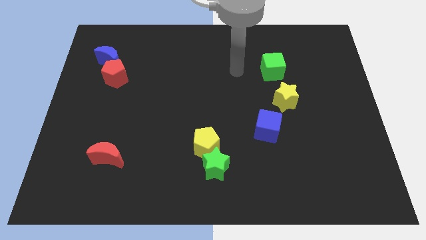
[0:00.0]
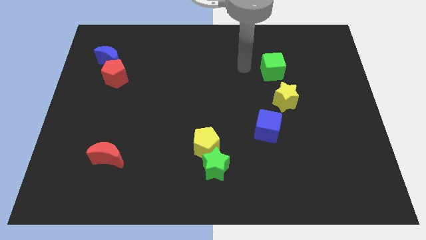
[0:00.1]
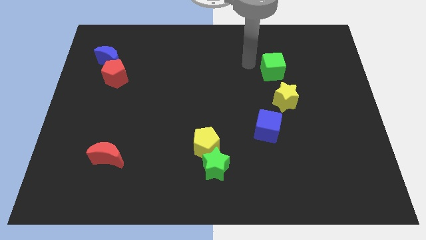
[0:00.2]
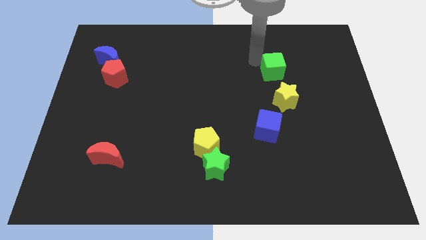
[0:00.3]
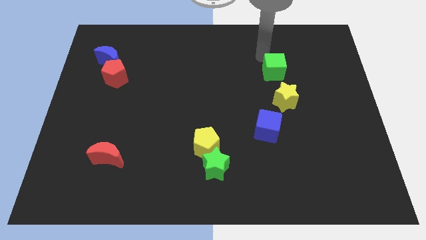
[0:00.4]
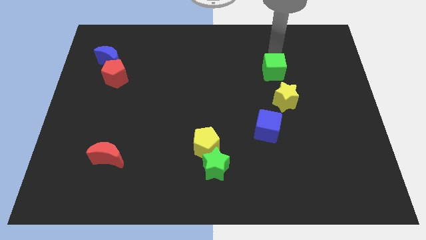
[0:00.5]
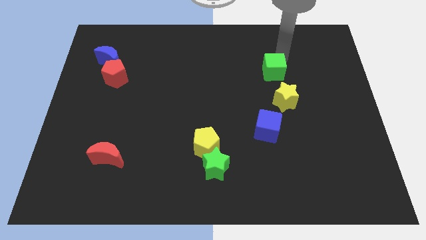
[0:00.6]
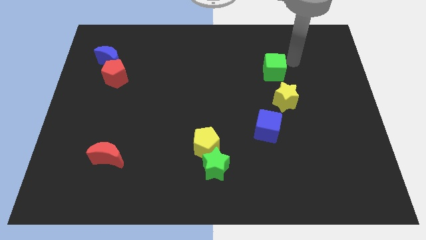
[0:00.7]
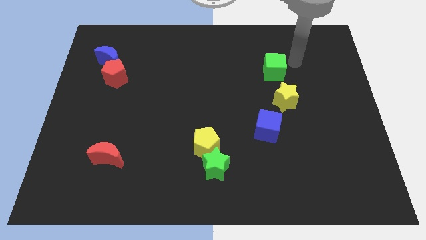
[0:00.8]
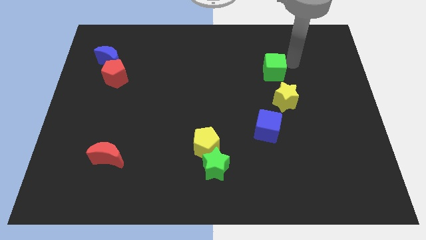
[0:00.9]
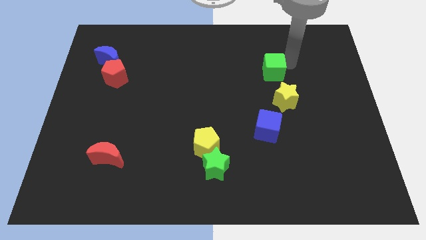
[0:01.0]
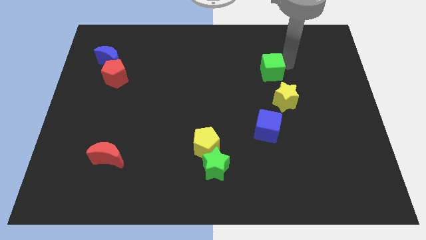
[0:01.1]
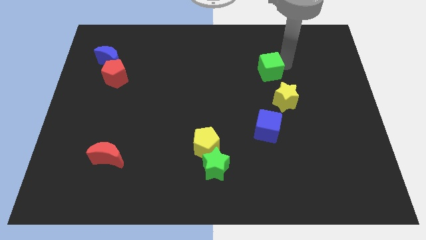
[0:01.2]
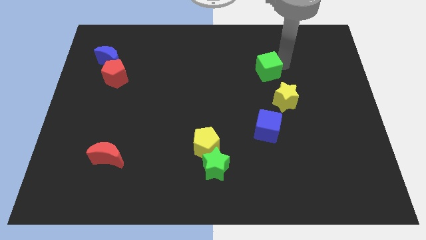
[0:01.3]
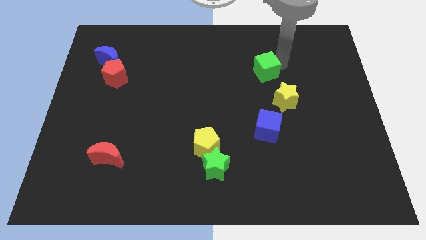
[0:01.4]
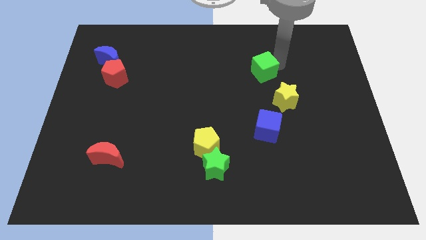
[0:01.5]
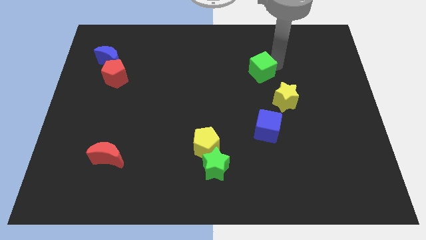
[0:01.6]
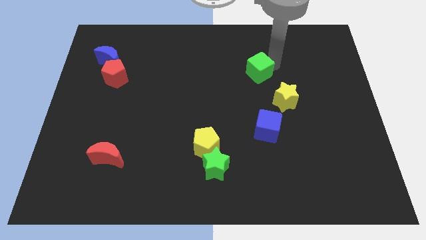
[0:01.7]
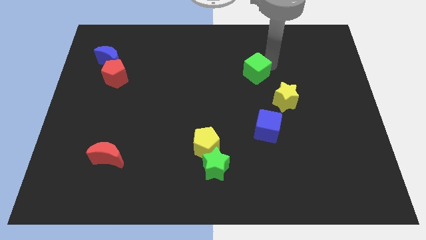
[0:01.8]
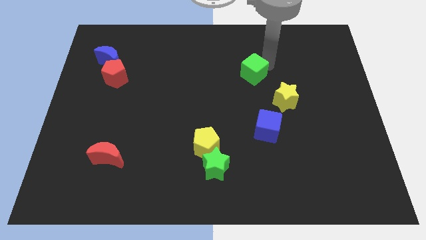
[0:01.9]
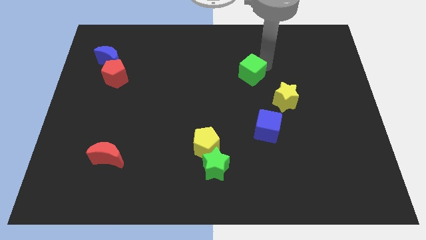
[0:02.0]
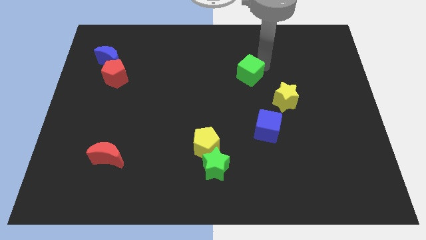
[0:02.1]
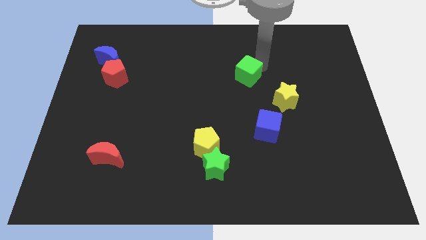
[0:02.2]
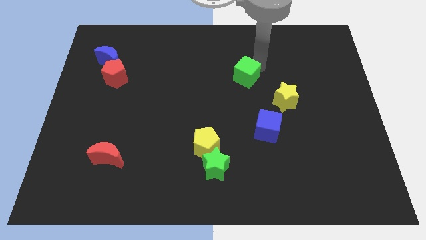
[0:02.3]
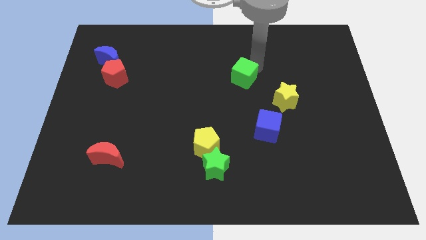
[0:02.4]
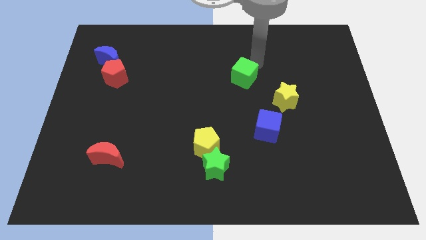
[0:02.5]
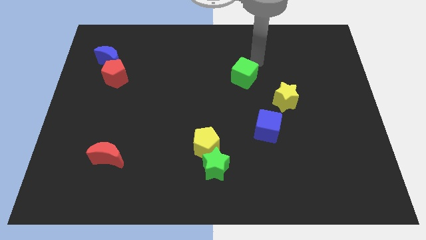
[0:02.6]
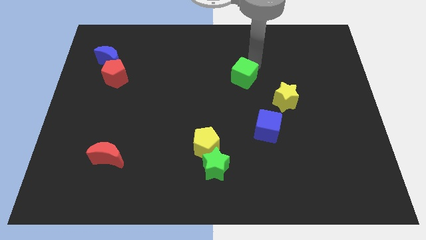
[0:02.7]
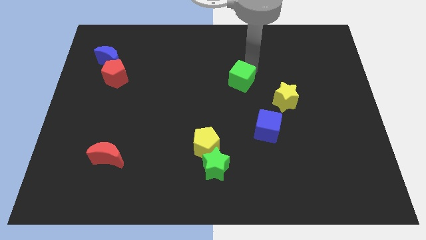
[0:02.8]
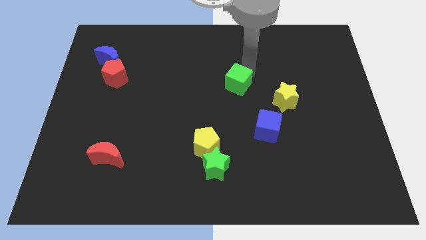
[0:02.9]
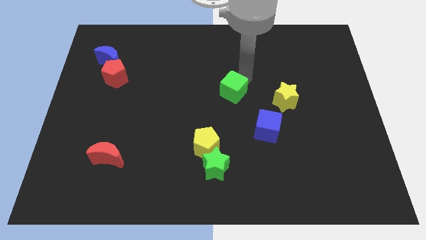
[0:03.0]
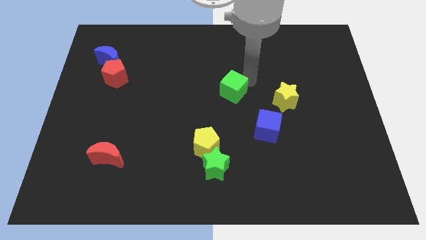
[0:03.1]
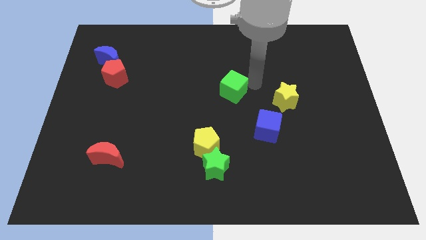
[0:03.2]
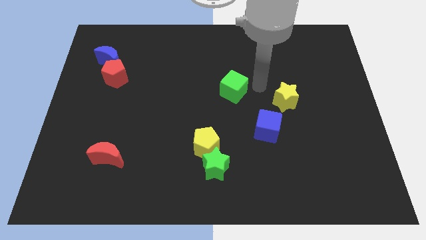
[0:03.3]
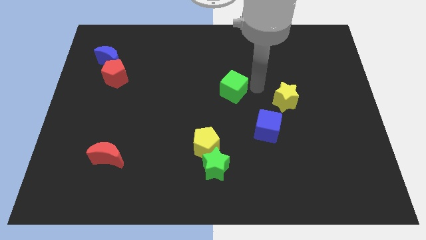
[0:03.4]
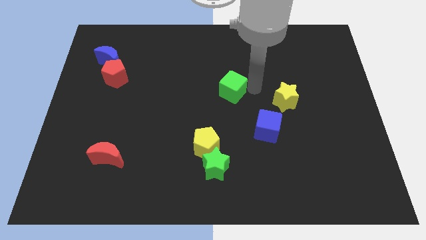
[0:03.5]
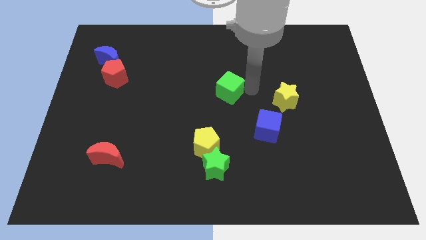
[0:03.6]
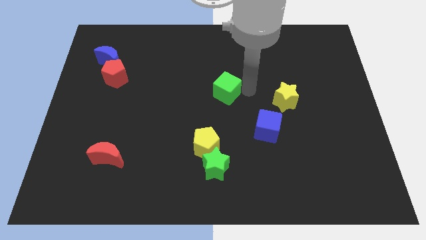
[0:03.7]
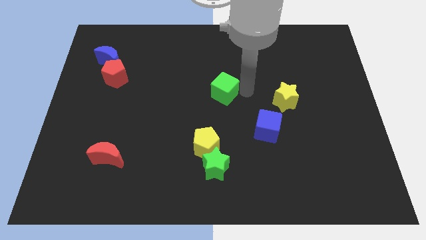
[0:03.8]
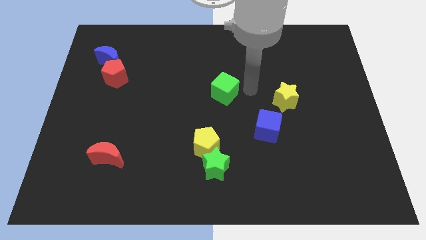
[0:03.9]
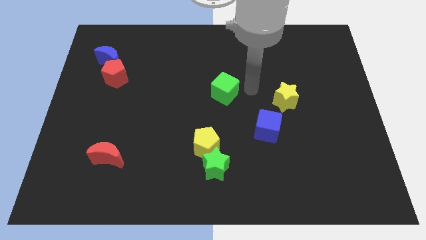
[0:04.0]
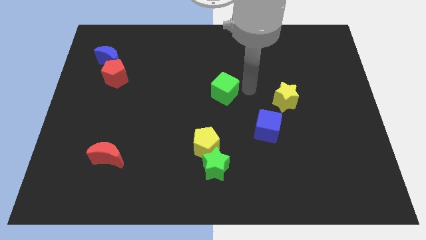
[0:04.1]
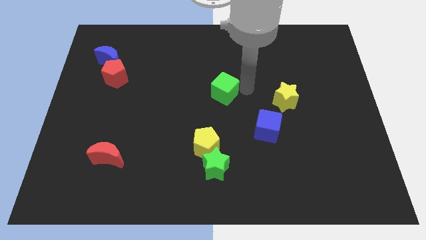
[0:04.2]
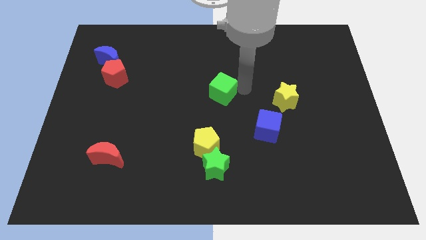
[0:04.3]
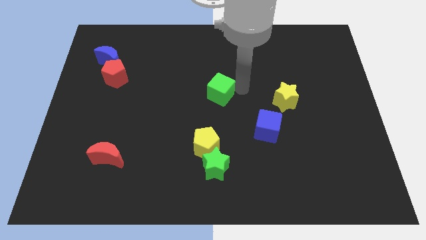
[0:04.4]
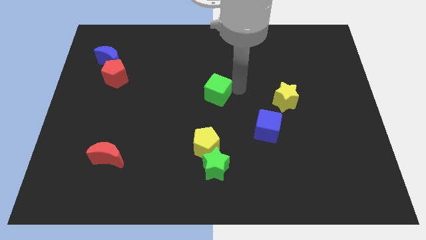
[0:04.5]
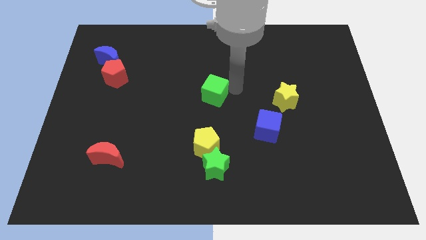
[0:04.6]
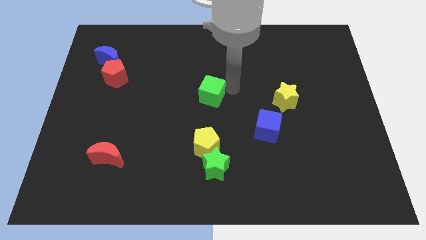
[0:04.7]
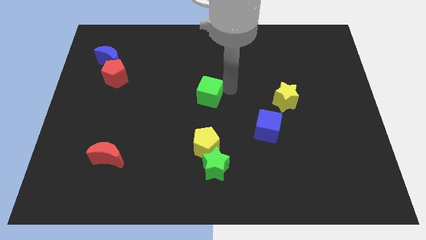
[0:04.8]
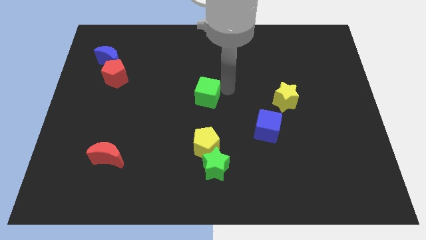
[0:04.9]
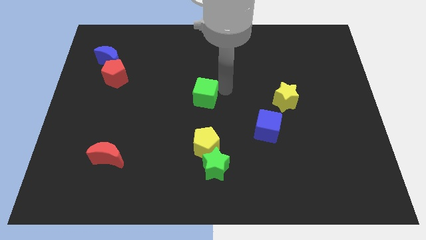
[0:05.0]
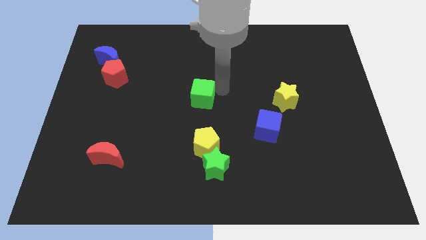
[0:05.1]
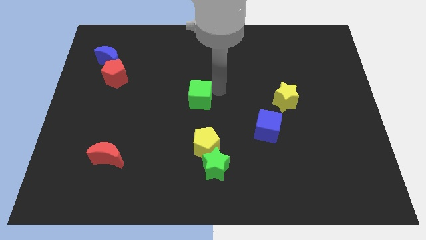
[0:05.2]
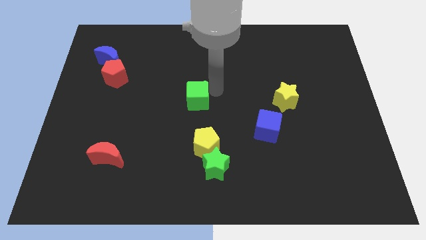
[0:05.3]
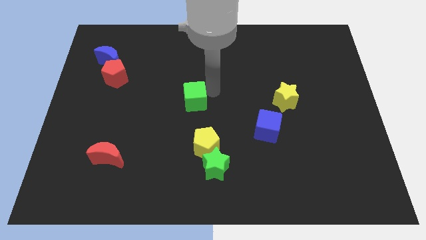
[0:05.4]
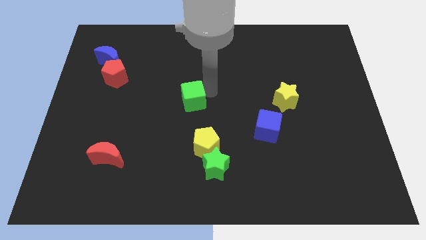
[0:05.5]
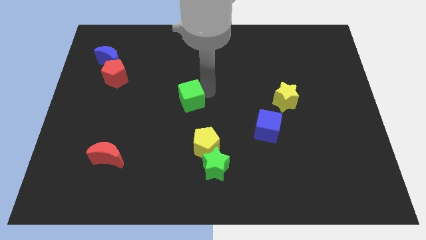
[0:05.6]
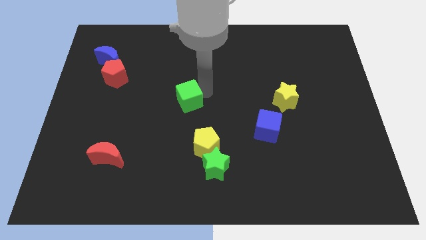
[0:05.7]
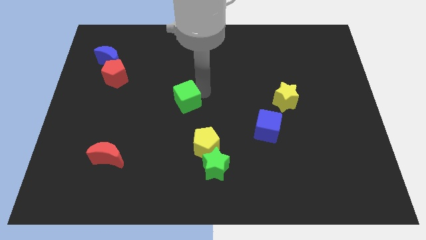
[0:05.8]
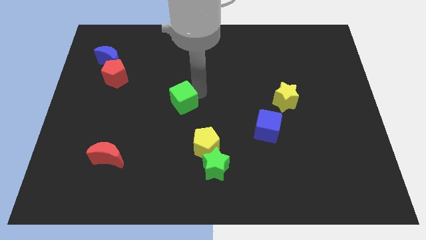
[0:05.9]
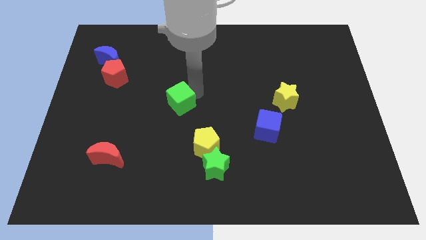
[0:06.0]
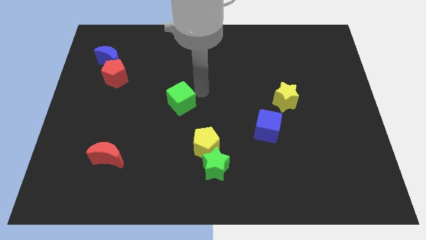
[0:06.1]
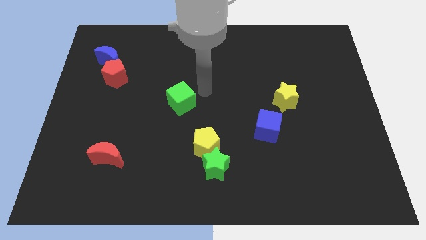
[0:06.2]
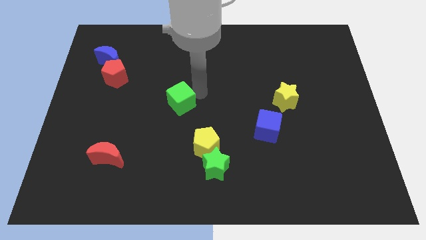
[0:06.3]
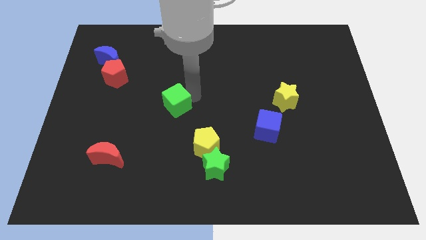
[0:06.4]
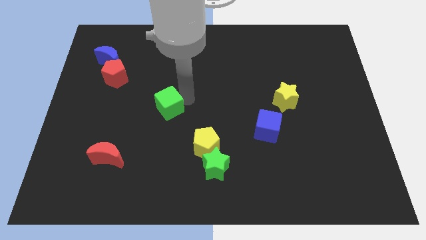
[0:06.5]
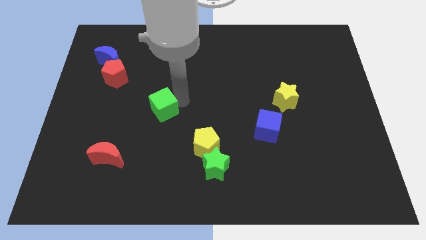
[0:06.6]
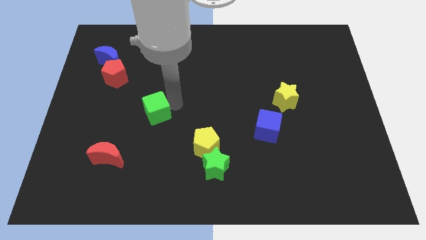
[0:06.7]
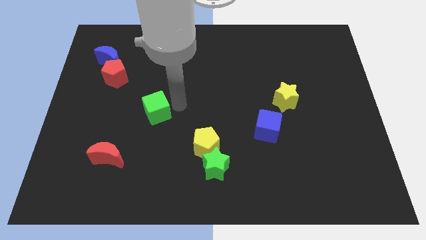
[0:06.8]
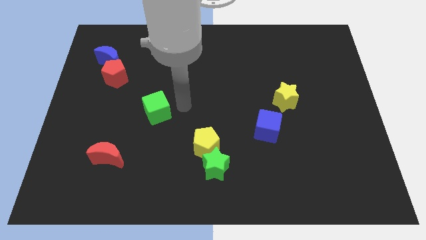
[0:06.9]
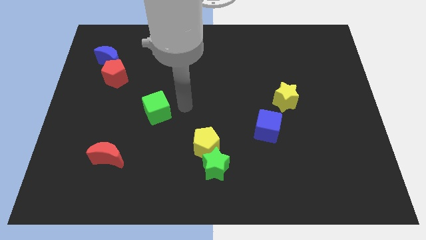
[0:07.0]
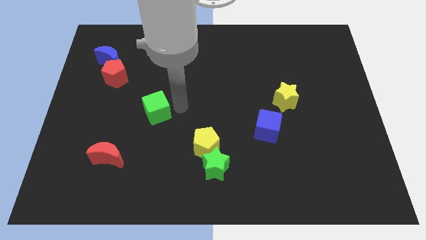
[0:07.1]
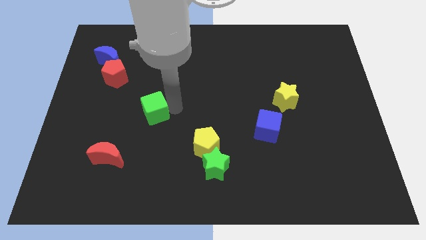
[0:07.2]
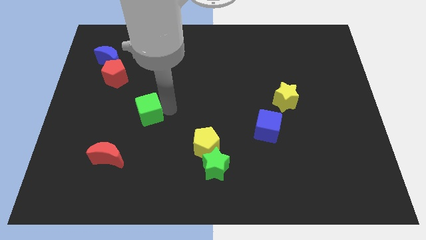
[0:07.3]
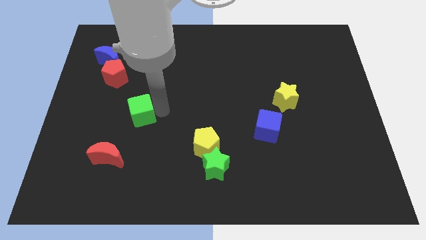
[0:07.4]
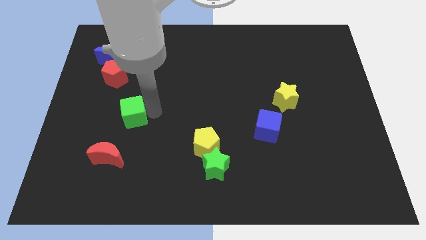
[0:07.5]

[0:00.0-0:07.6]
push the green cube above the red moon
